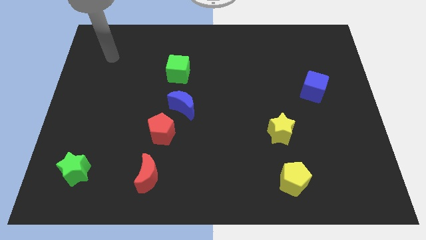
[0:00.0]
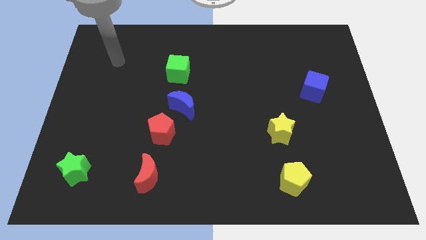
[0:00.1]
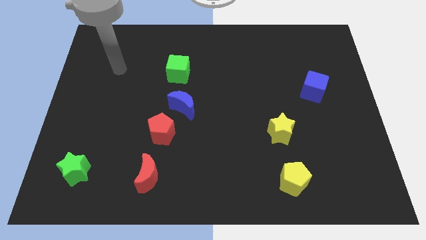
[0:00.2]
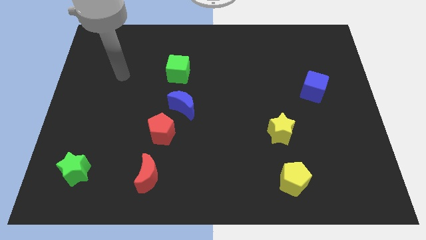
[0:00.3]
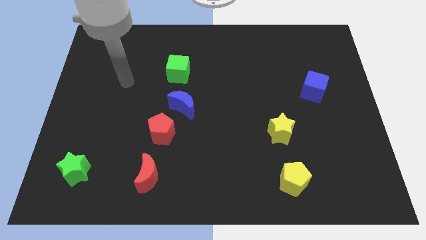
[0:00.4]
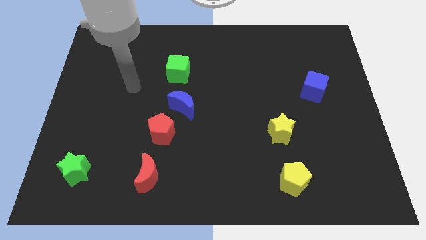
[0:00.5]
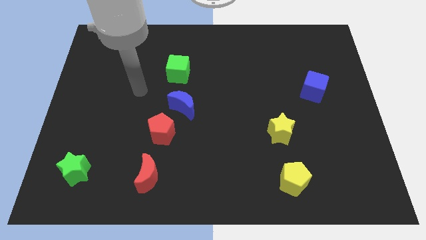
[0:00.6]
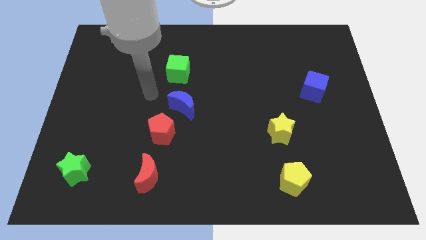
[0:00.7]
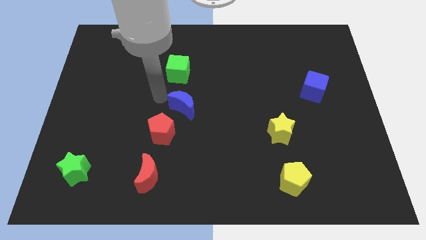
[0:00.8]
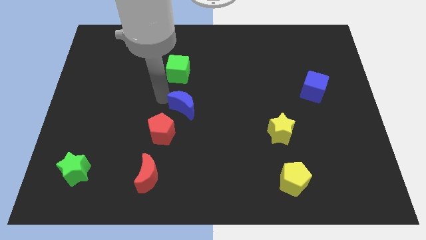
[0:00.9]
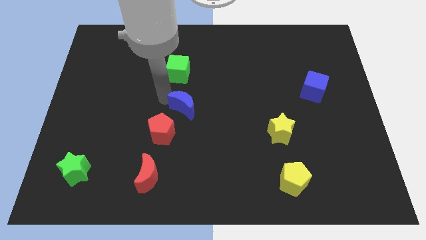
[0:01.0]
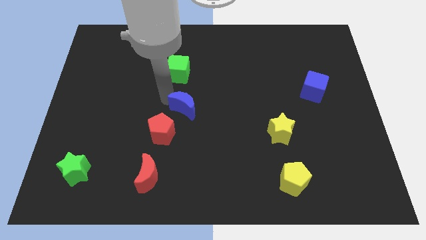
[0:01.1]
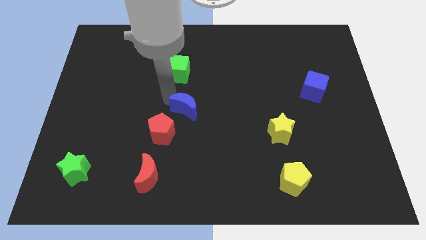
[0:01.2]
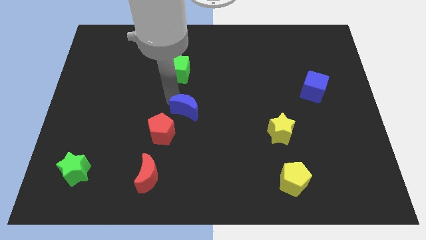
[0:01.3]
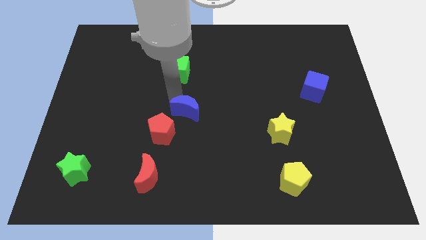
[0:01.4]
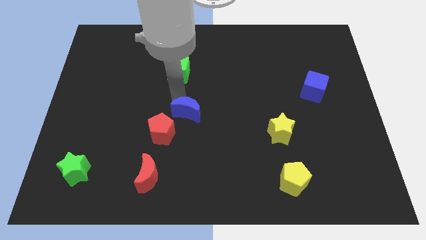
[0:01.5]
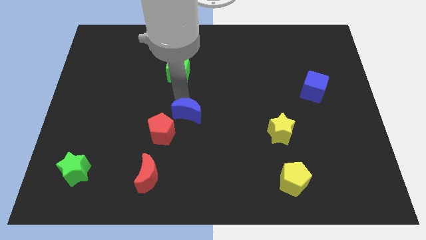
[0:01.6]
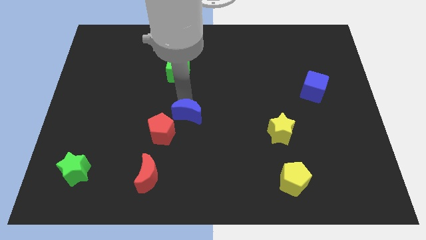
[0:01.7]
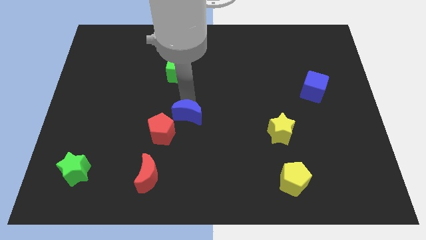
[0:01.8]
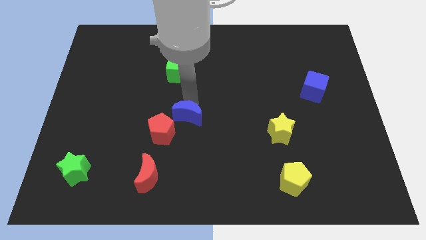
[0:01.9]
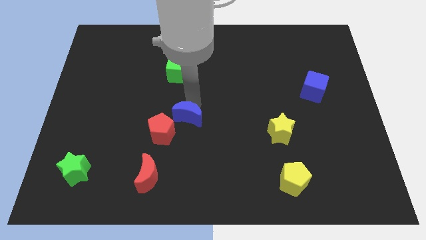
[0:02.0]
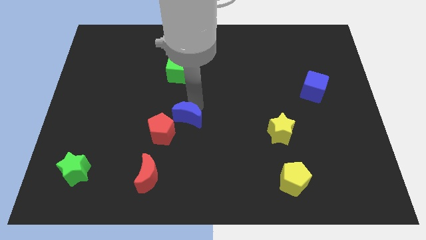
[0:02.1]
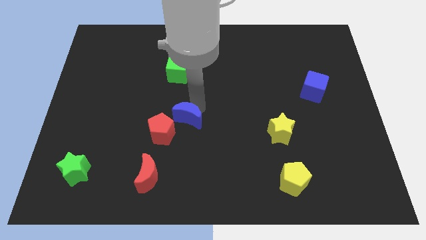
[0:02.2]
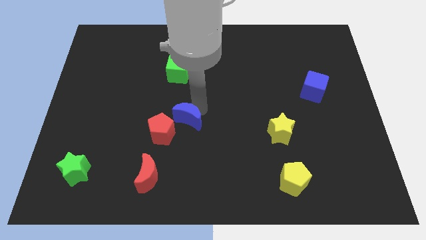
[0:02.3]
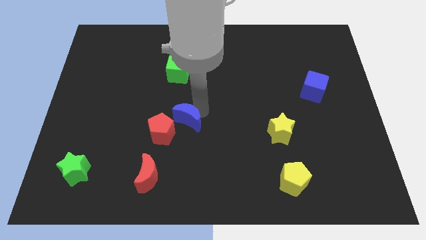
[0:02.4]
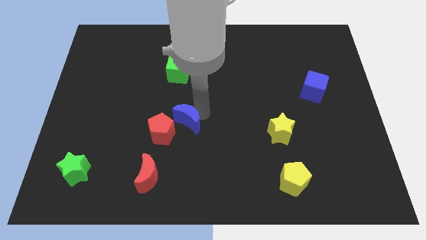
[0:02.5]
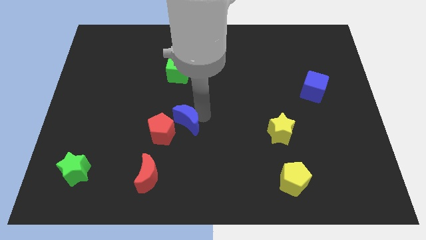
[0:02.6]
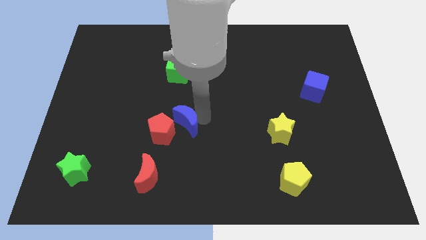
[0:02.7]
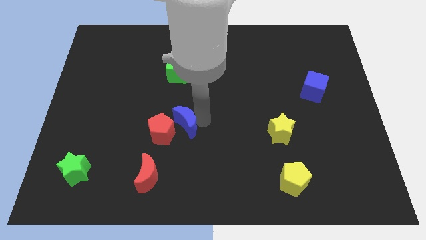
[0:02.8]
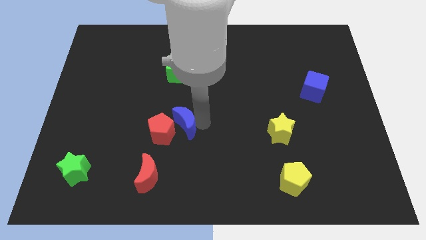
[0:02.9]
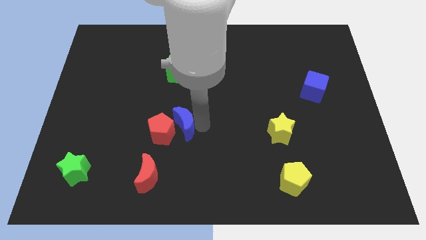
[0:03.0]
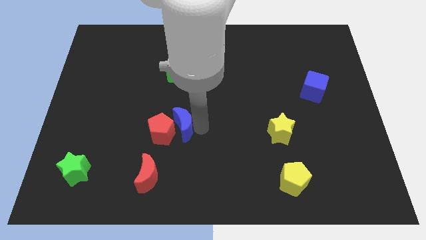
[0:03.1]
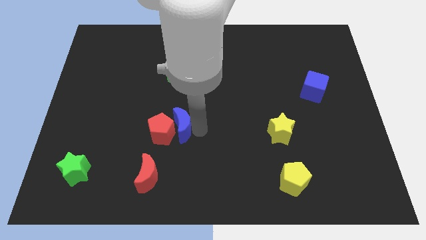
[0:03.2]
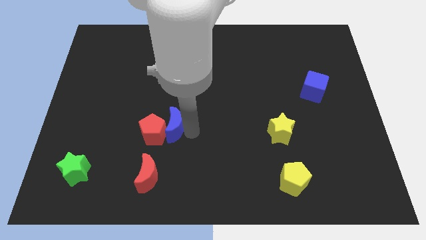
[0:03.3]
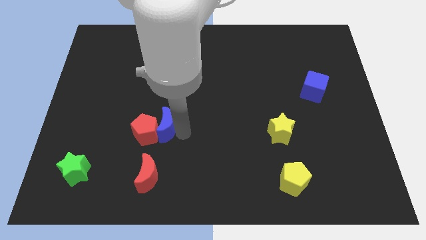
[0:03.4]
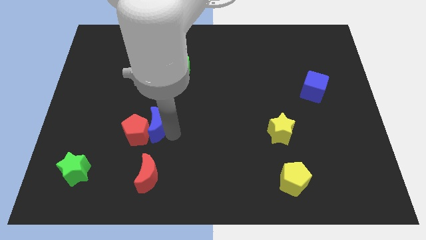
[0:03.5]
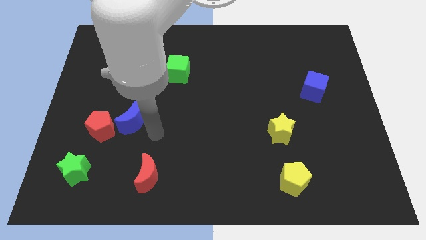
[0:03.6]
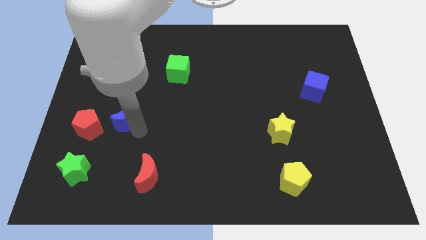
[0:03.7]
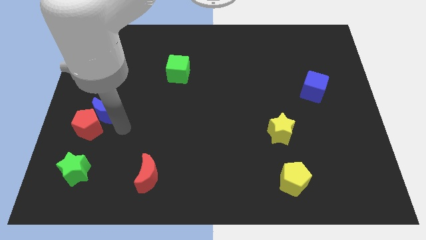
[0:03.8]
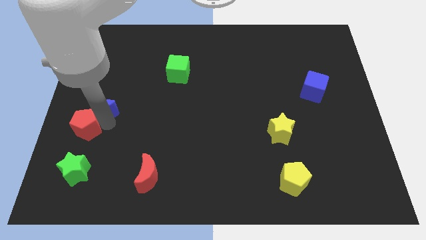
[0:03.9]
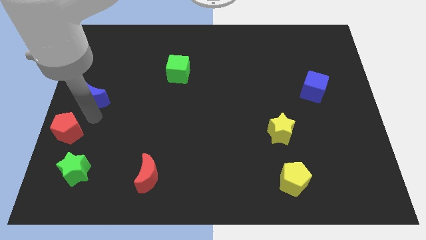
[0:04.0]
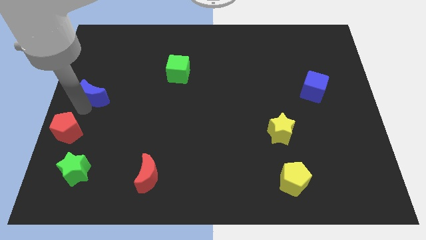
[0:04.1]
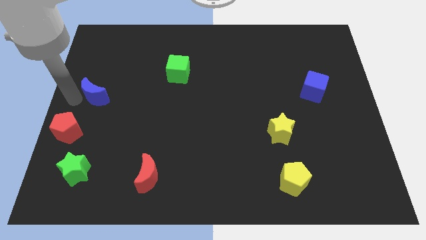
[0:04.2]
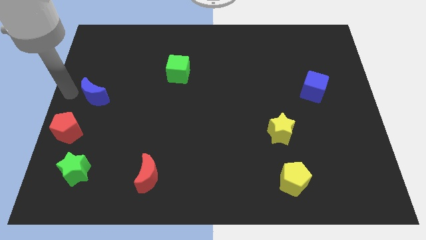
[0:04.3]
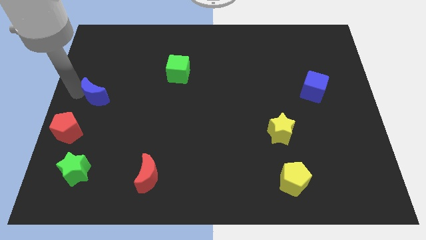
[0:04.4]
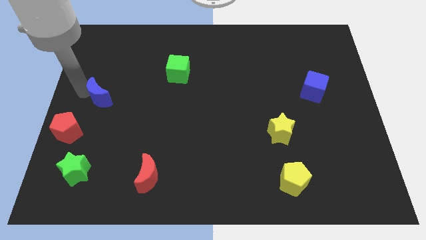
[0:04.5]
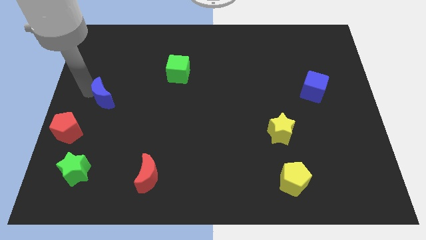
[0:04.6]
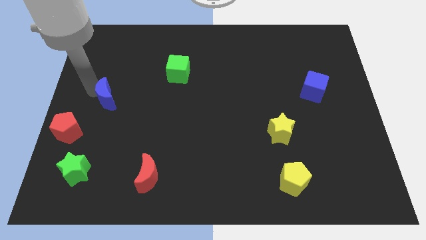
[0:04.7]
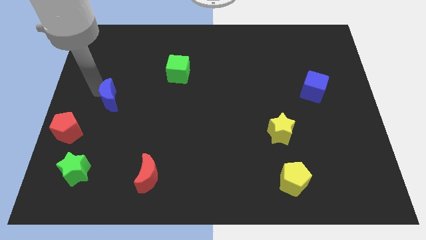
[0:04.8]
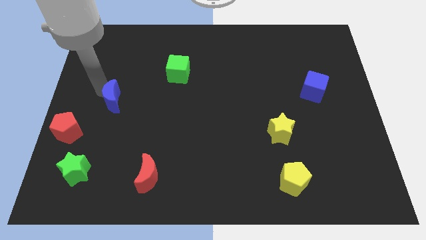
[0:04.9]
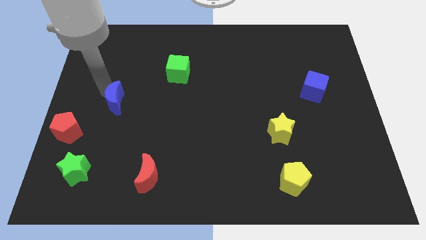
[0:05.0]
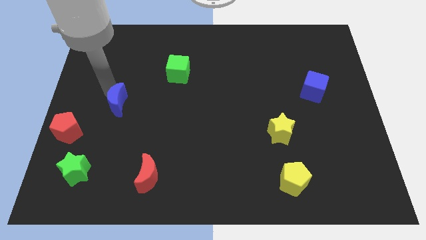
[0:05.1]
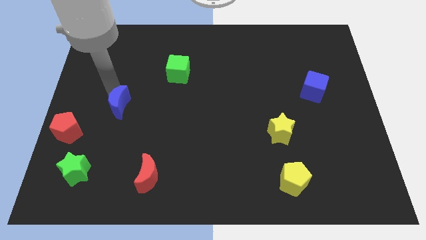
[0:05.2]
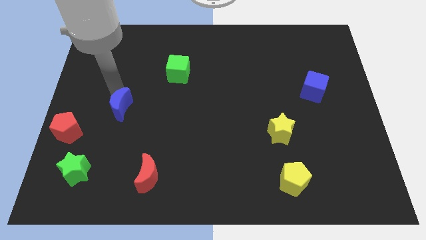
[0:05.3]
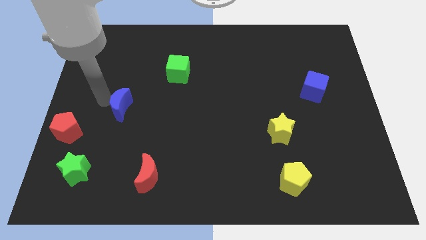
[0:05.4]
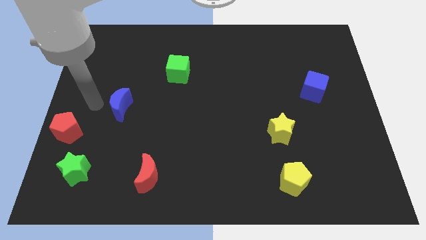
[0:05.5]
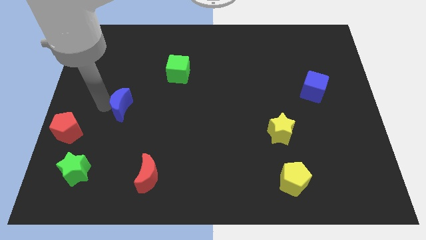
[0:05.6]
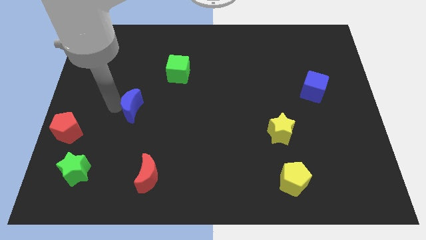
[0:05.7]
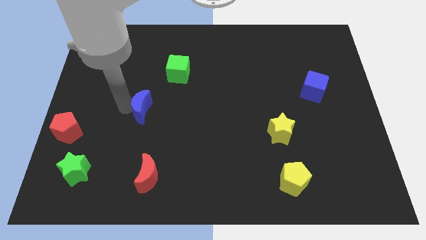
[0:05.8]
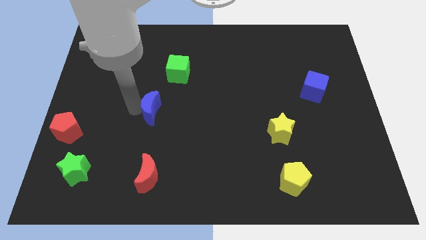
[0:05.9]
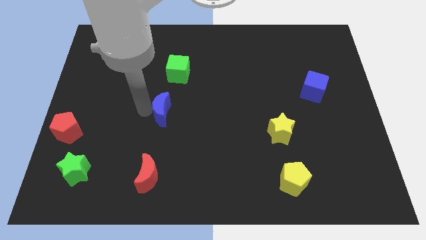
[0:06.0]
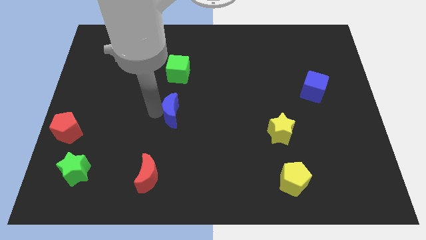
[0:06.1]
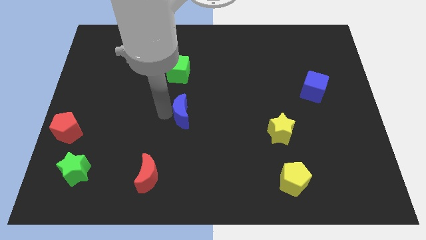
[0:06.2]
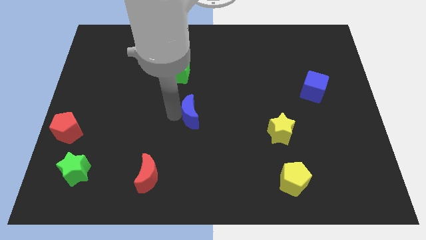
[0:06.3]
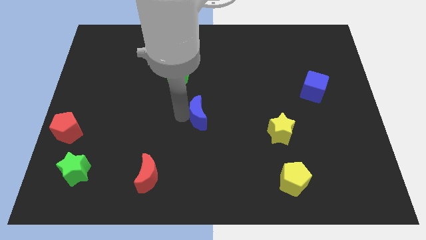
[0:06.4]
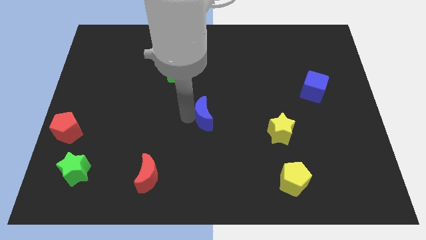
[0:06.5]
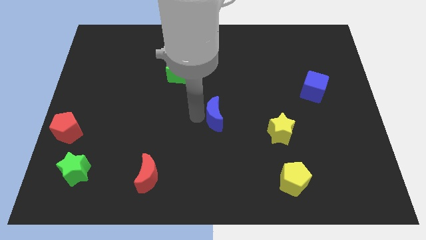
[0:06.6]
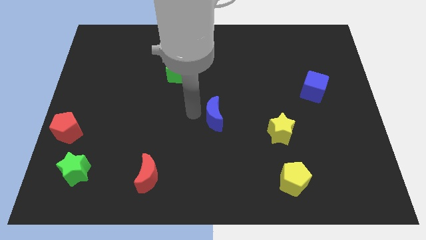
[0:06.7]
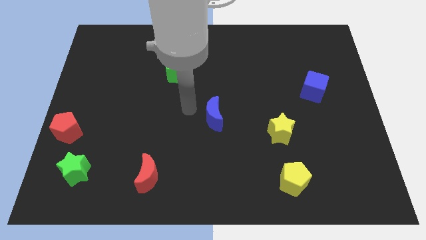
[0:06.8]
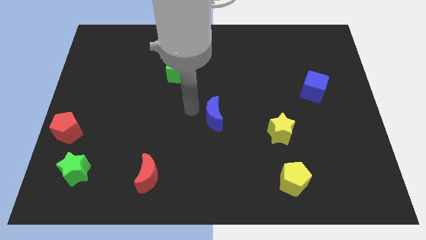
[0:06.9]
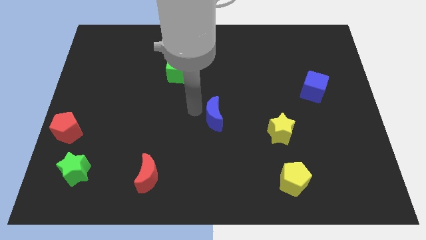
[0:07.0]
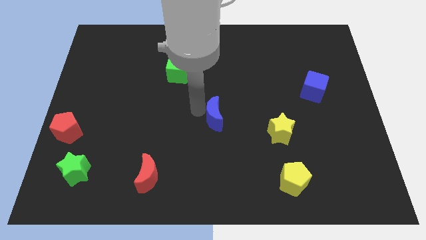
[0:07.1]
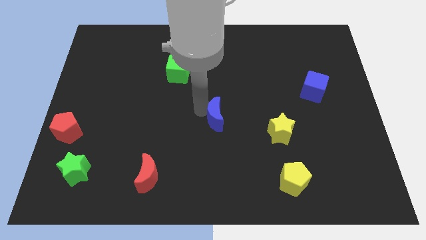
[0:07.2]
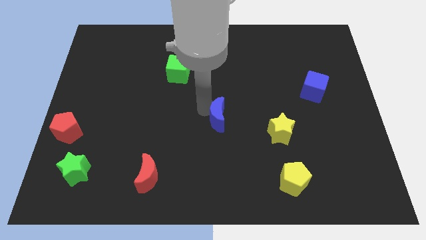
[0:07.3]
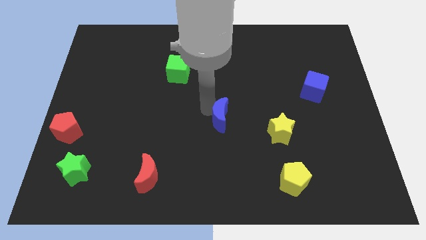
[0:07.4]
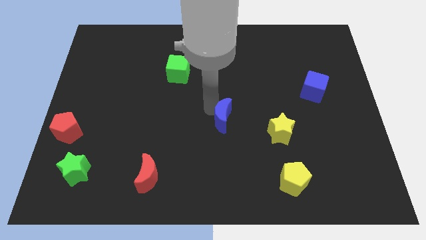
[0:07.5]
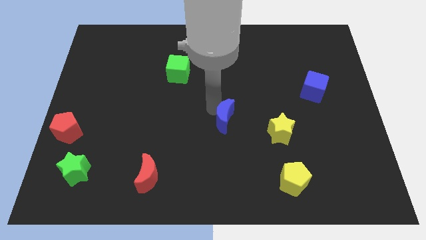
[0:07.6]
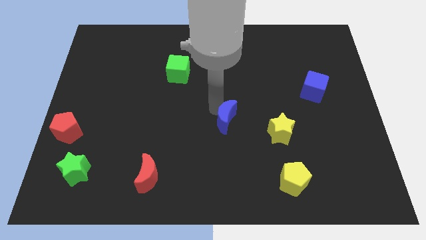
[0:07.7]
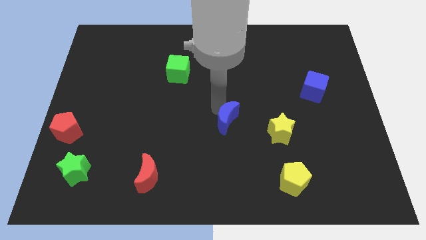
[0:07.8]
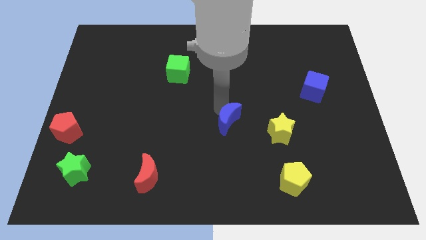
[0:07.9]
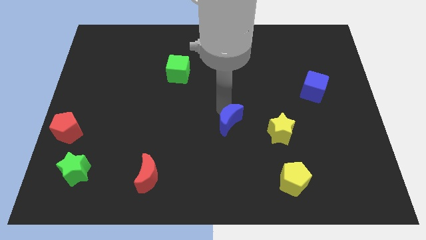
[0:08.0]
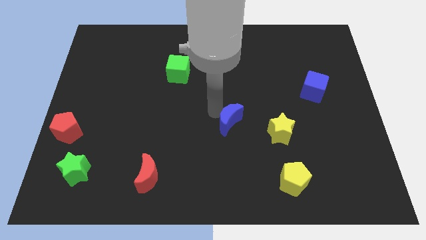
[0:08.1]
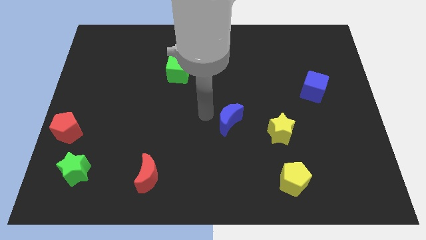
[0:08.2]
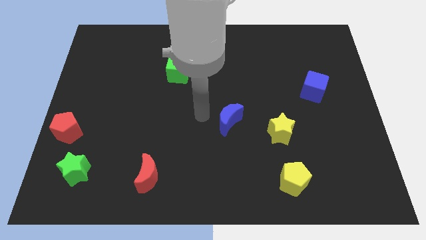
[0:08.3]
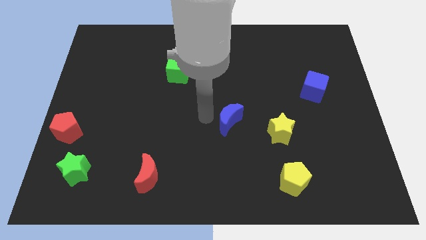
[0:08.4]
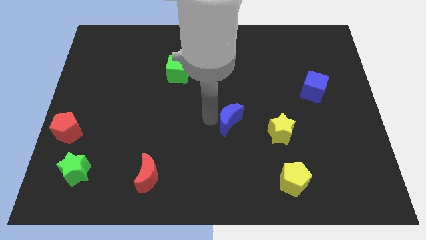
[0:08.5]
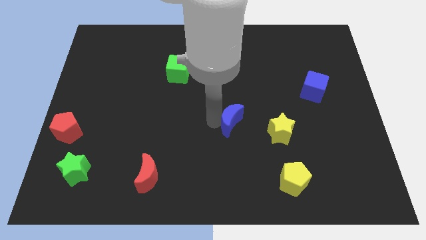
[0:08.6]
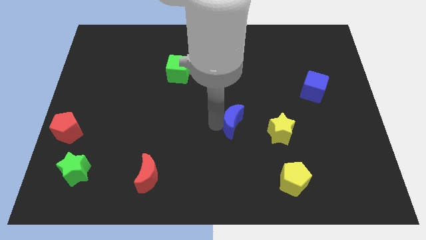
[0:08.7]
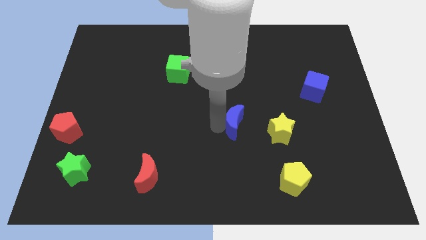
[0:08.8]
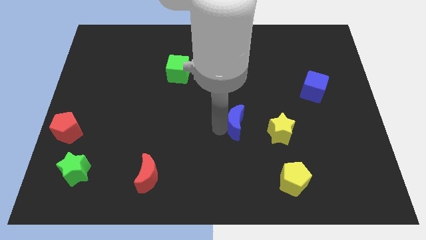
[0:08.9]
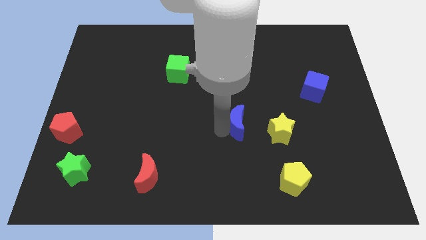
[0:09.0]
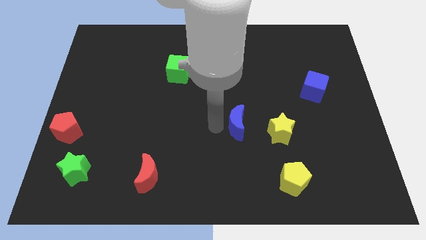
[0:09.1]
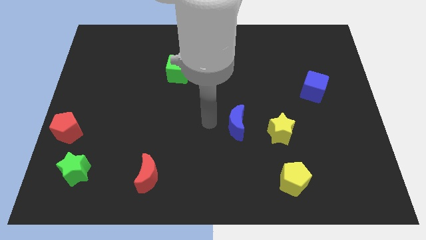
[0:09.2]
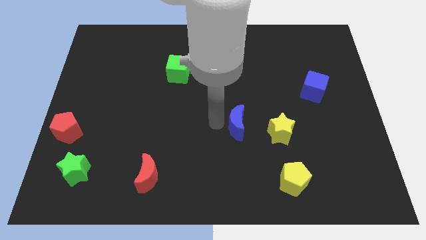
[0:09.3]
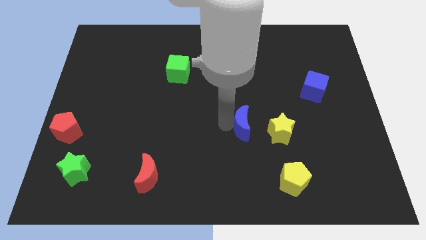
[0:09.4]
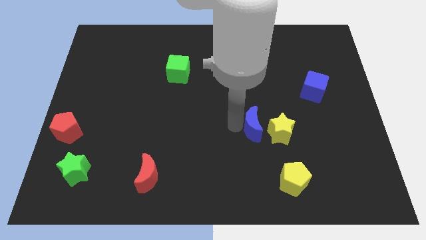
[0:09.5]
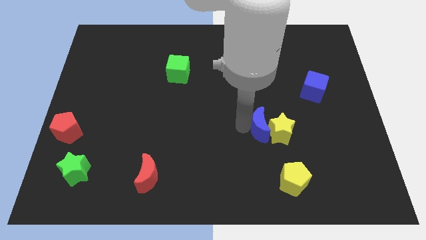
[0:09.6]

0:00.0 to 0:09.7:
push the blue moon to the yellow star
